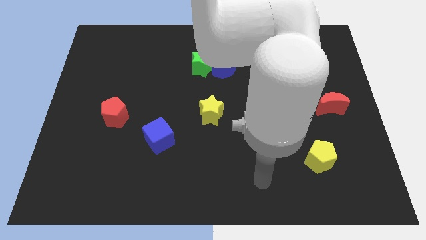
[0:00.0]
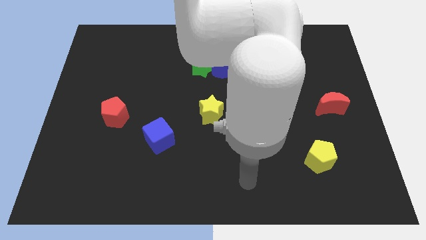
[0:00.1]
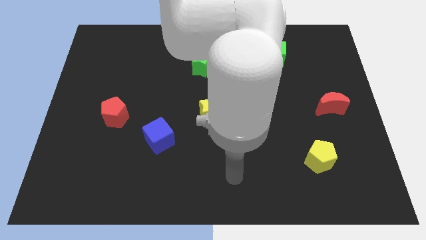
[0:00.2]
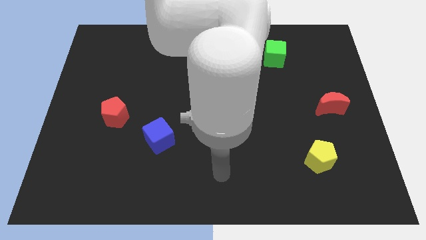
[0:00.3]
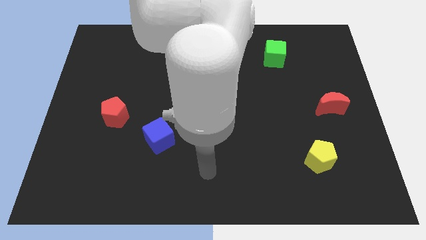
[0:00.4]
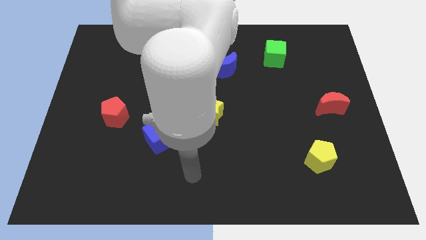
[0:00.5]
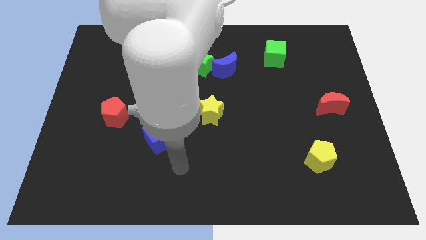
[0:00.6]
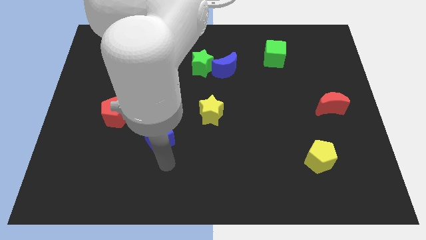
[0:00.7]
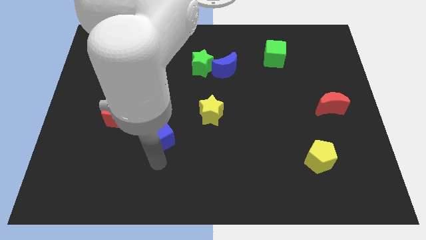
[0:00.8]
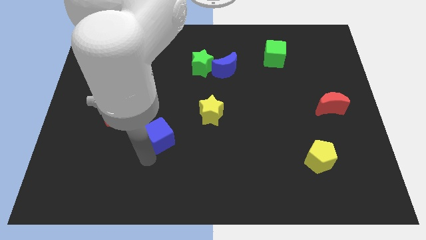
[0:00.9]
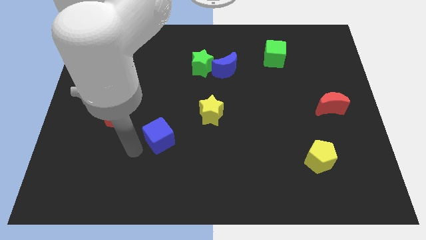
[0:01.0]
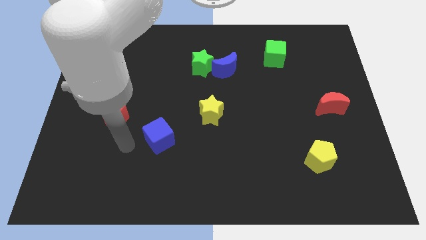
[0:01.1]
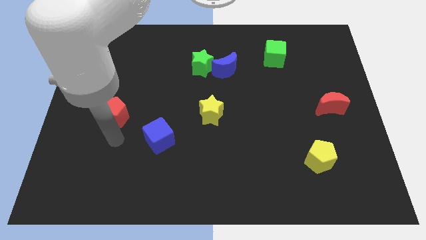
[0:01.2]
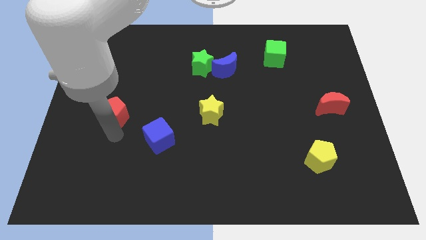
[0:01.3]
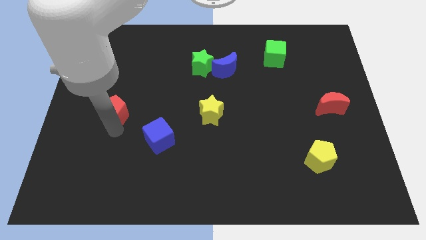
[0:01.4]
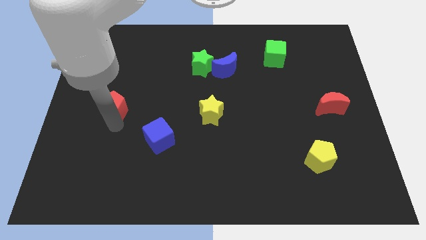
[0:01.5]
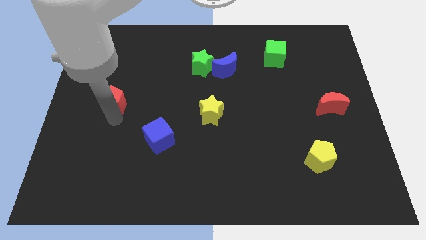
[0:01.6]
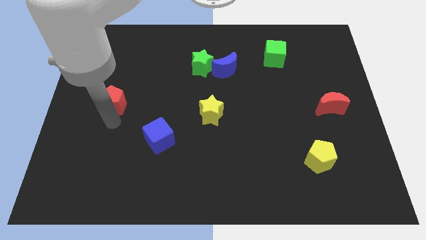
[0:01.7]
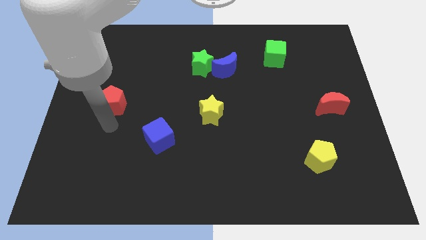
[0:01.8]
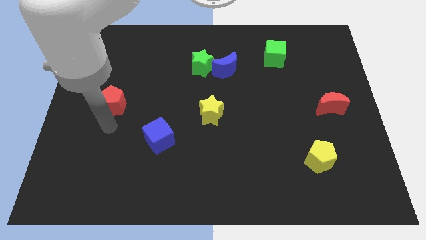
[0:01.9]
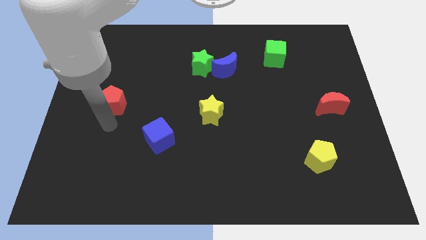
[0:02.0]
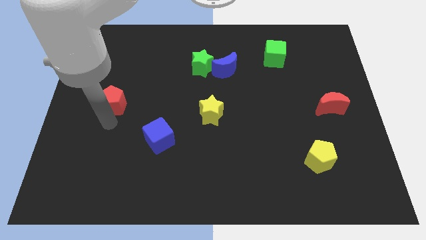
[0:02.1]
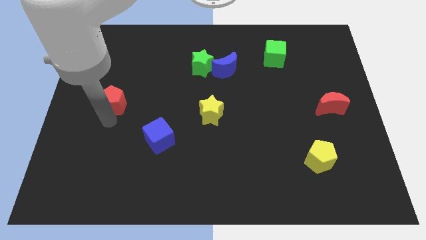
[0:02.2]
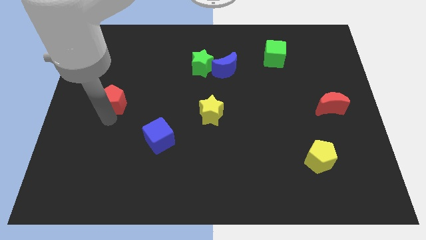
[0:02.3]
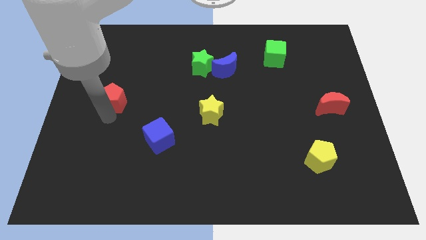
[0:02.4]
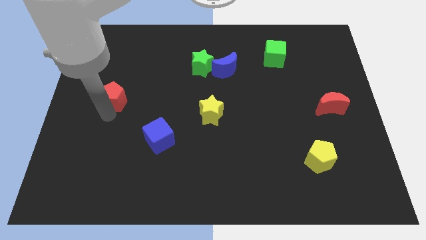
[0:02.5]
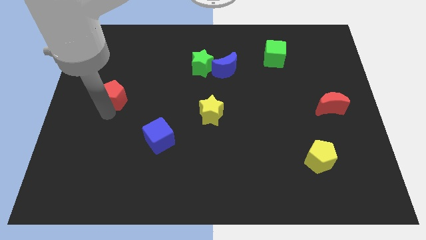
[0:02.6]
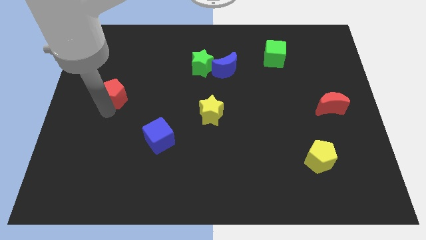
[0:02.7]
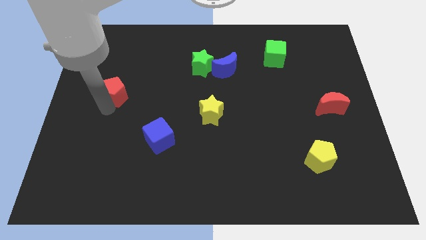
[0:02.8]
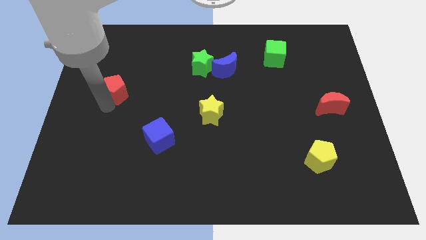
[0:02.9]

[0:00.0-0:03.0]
push the red pentagon a bit upwards

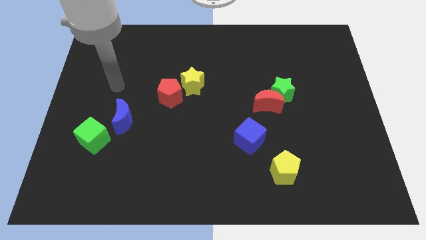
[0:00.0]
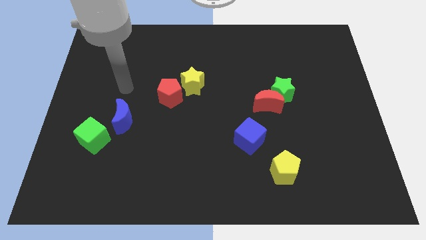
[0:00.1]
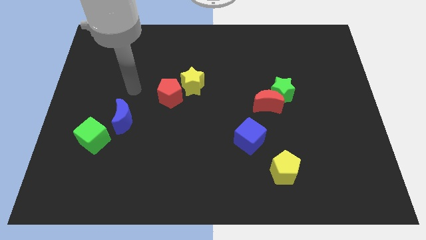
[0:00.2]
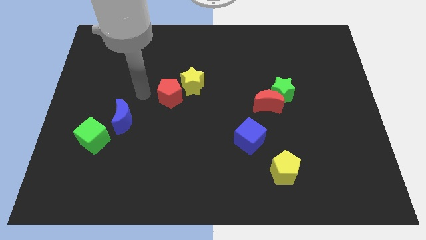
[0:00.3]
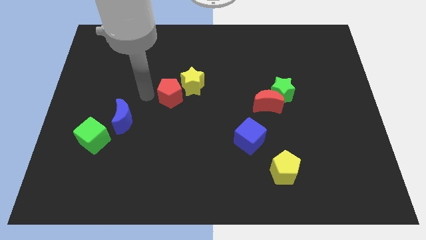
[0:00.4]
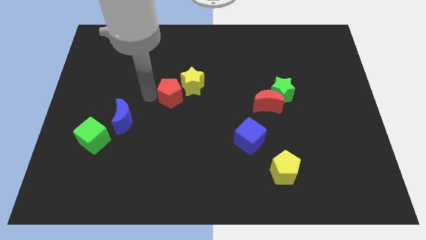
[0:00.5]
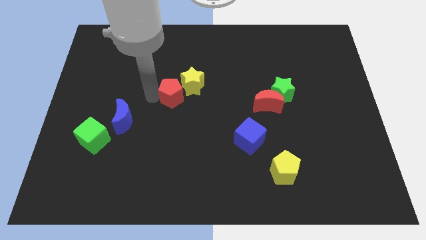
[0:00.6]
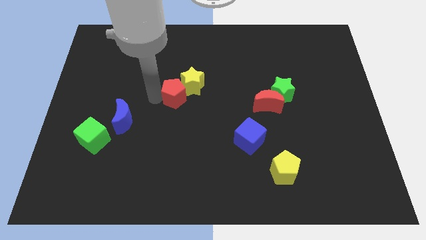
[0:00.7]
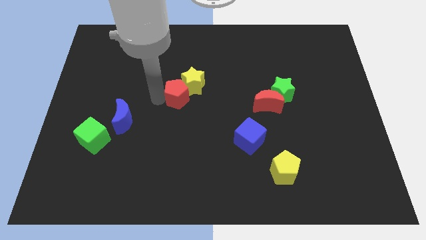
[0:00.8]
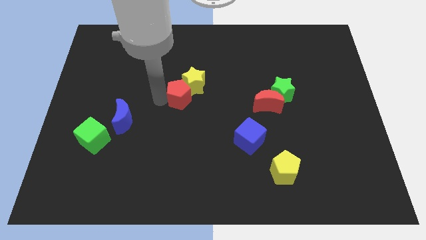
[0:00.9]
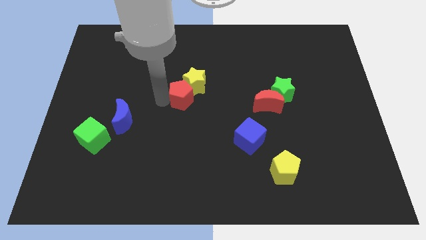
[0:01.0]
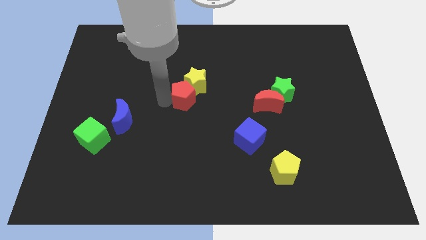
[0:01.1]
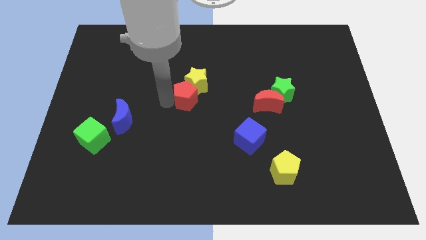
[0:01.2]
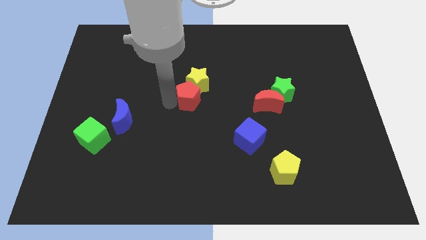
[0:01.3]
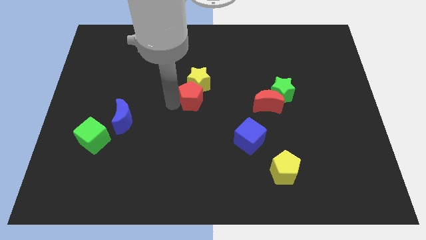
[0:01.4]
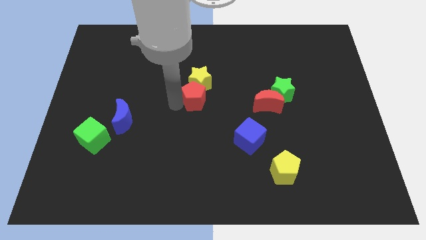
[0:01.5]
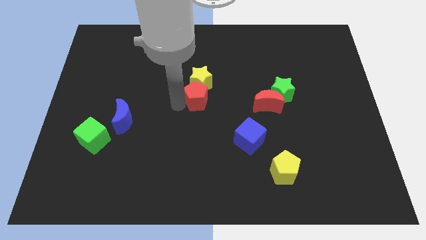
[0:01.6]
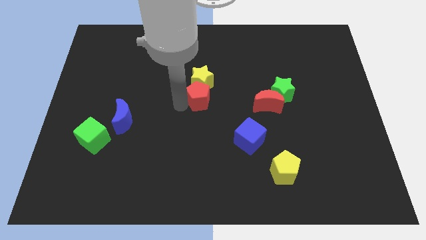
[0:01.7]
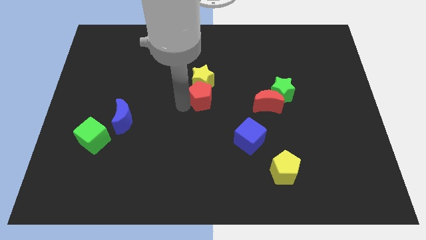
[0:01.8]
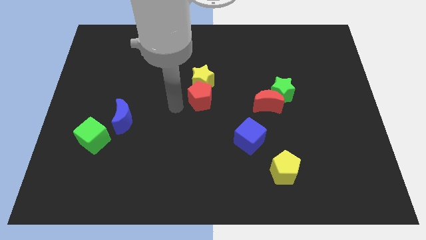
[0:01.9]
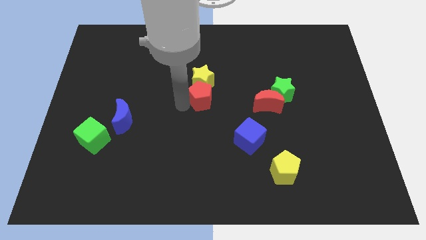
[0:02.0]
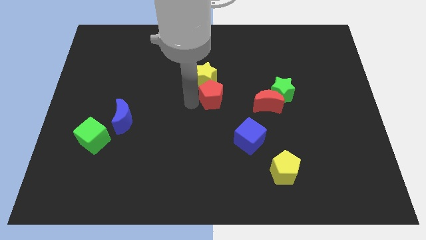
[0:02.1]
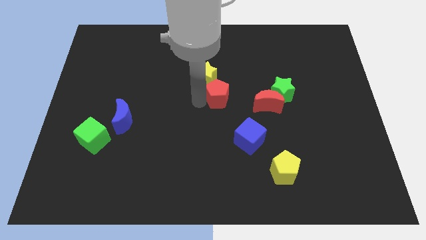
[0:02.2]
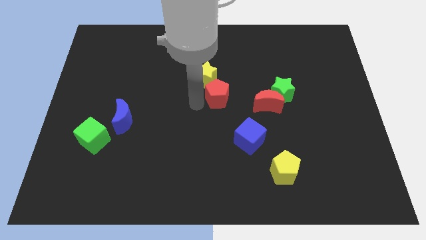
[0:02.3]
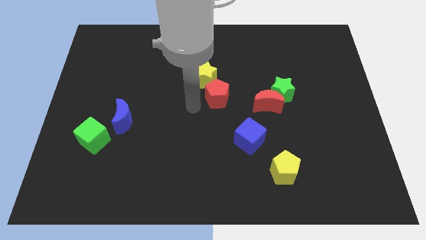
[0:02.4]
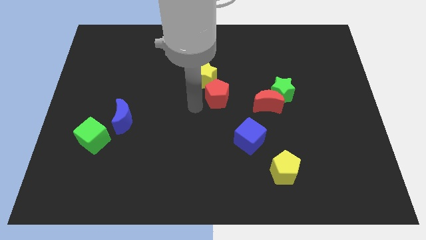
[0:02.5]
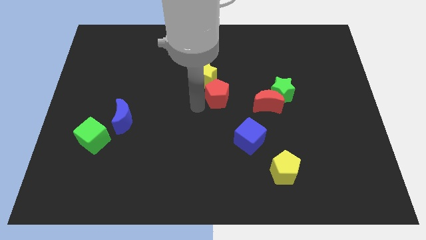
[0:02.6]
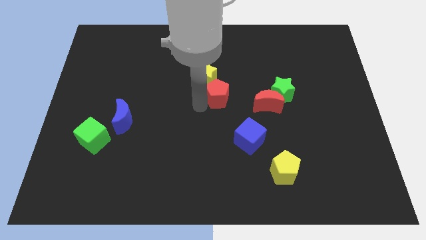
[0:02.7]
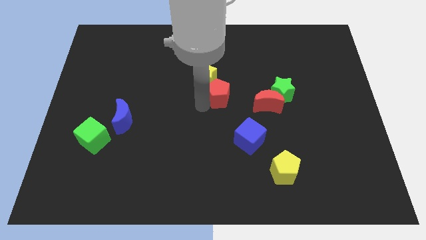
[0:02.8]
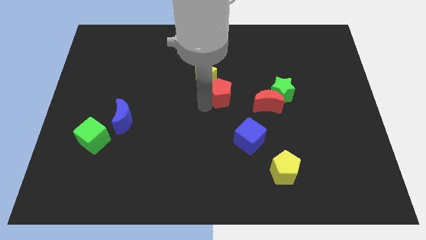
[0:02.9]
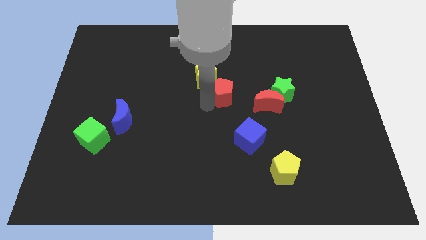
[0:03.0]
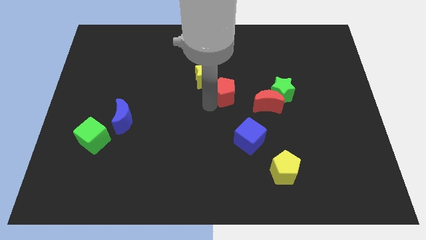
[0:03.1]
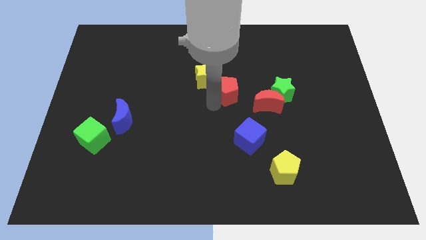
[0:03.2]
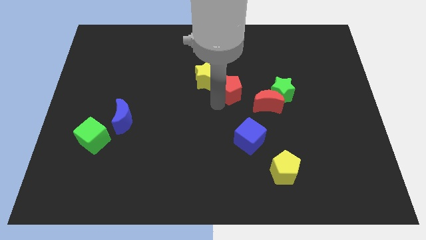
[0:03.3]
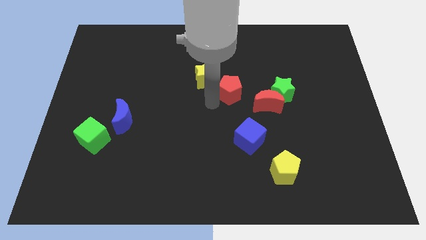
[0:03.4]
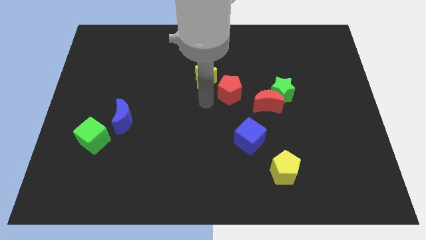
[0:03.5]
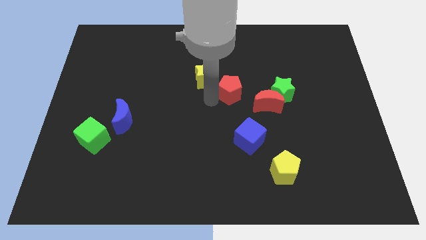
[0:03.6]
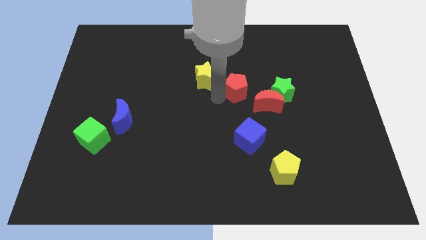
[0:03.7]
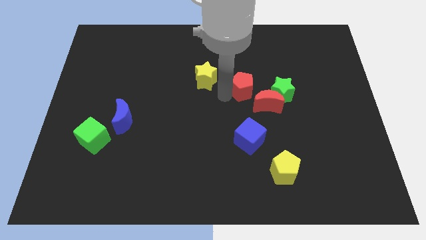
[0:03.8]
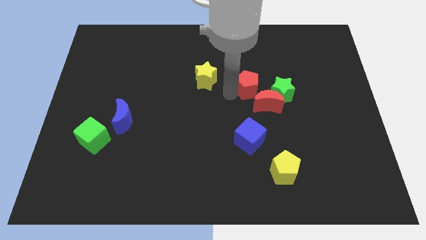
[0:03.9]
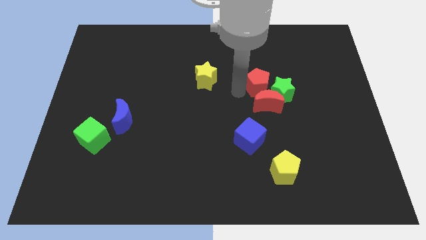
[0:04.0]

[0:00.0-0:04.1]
slide the red pentagon right

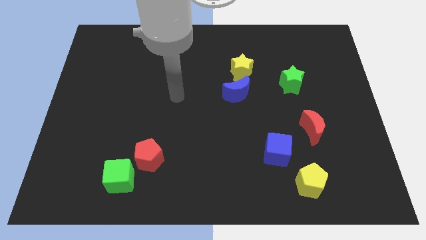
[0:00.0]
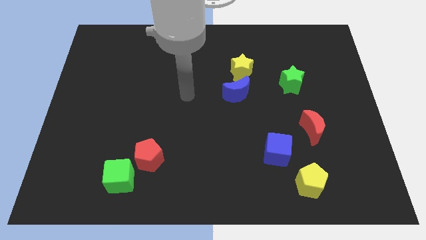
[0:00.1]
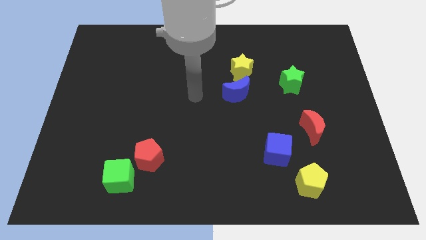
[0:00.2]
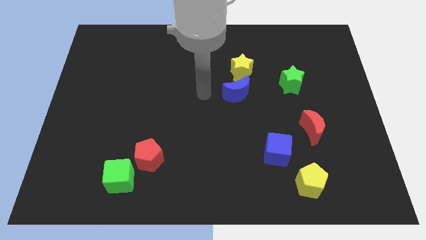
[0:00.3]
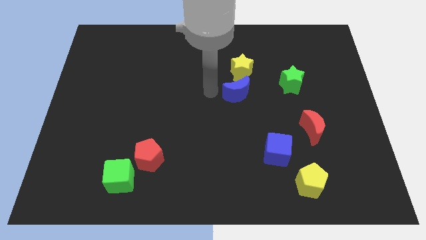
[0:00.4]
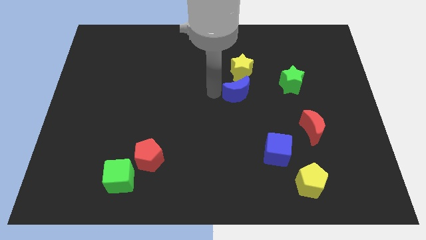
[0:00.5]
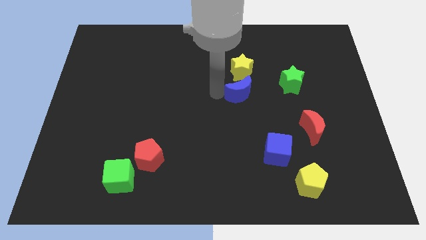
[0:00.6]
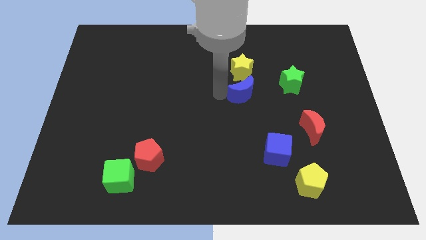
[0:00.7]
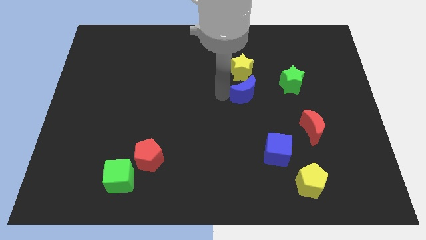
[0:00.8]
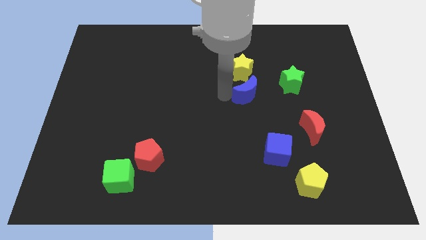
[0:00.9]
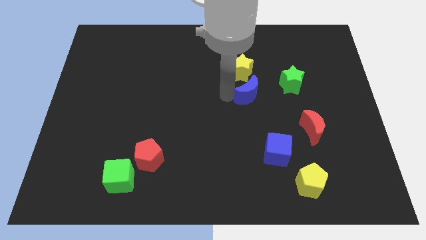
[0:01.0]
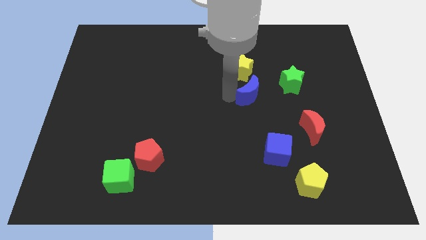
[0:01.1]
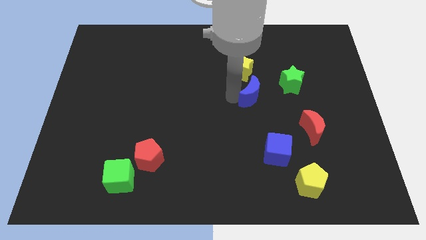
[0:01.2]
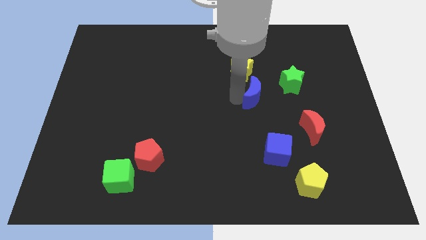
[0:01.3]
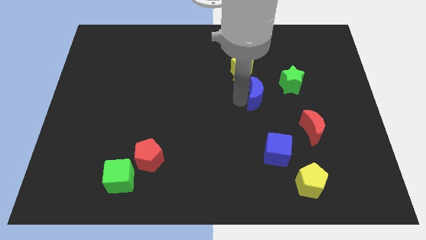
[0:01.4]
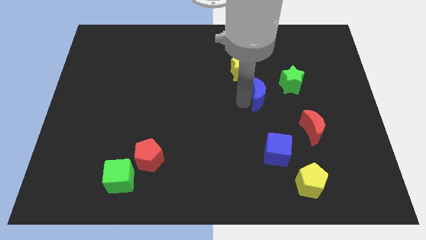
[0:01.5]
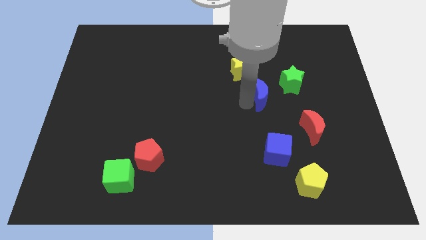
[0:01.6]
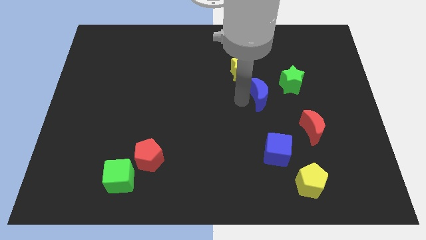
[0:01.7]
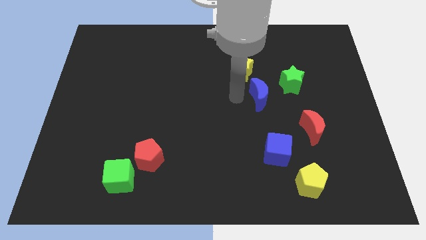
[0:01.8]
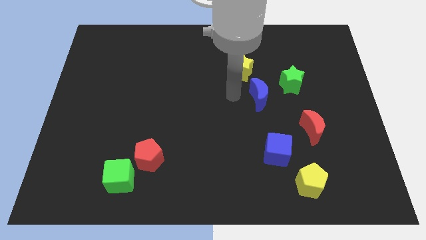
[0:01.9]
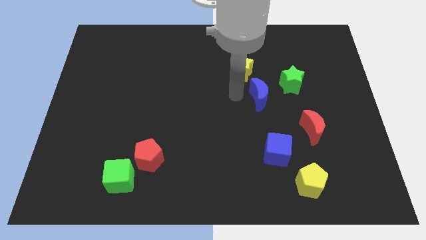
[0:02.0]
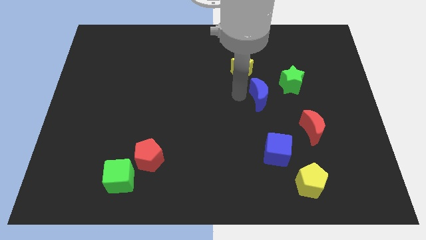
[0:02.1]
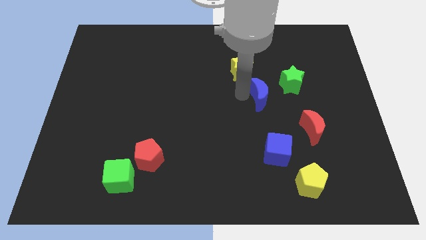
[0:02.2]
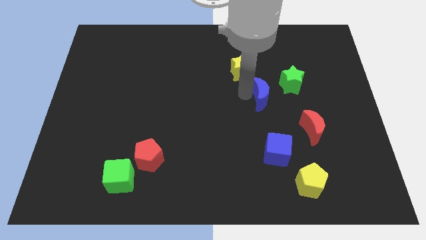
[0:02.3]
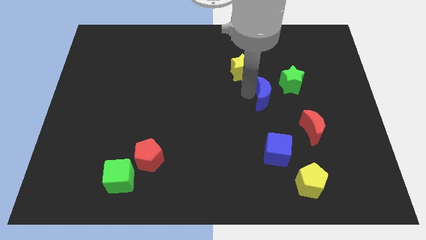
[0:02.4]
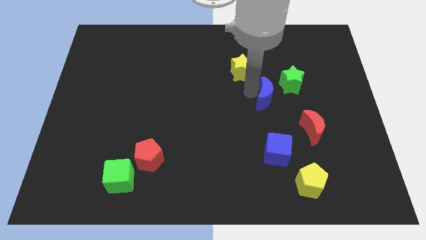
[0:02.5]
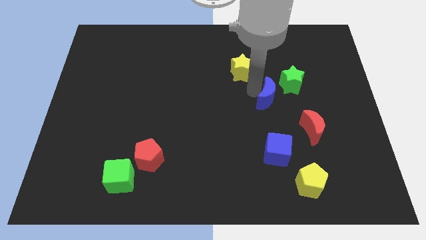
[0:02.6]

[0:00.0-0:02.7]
slightly push the blue moon to the right
